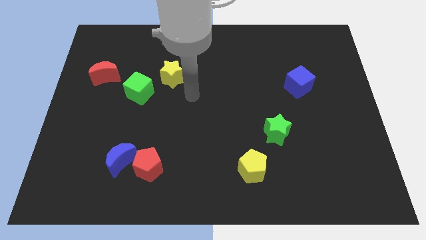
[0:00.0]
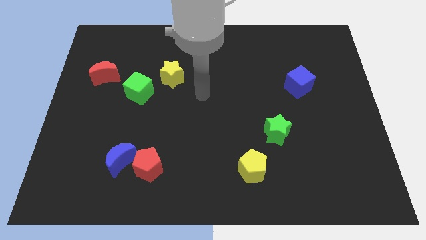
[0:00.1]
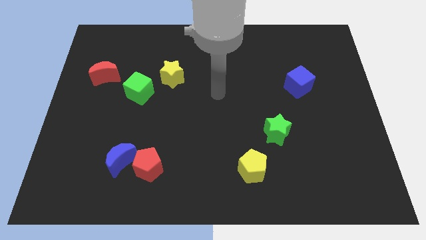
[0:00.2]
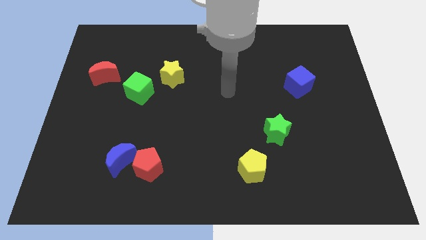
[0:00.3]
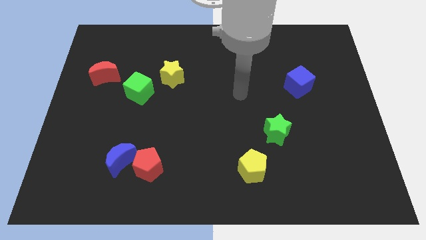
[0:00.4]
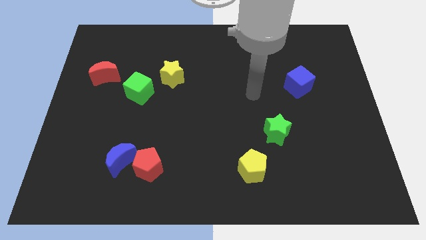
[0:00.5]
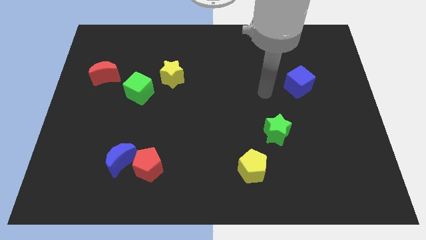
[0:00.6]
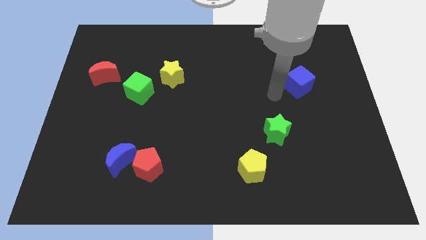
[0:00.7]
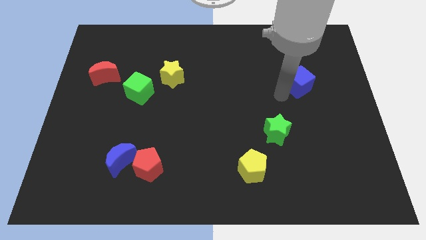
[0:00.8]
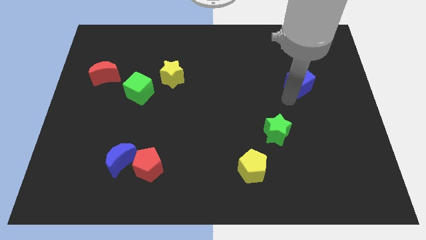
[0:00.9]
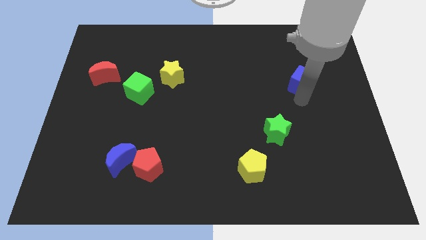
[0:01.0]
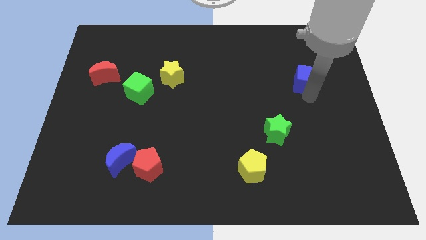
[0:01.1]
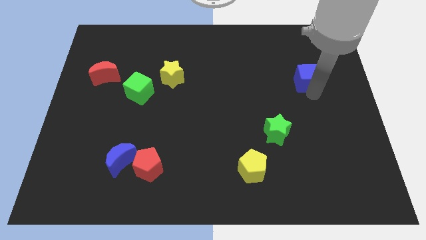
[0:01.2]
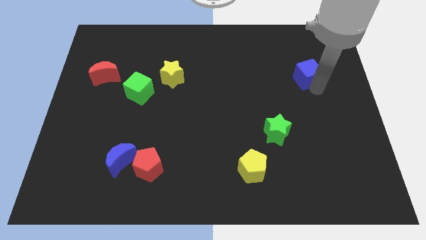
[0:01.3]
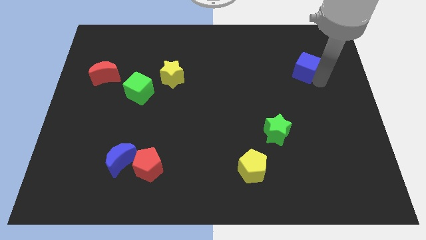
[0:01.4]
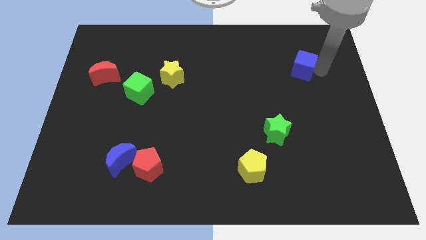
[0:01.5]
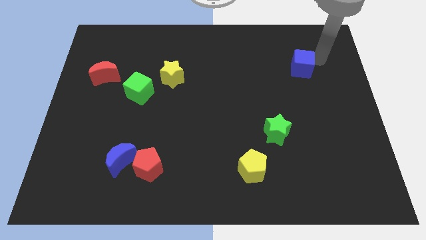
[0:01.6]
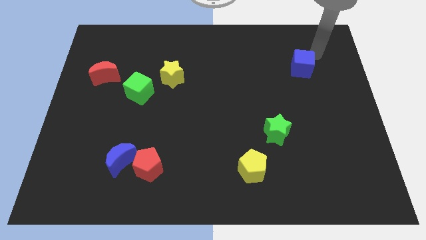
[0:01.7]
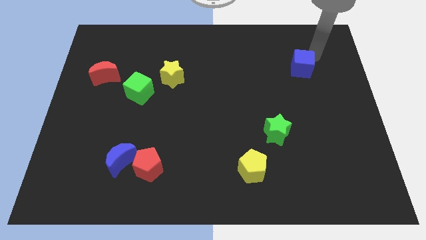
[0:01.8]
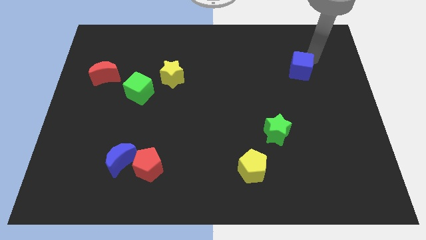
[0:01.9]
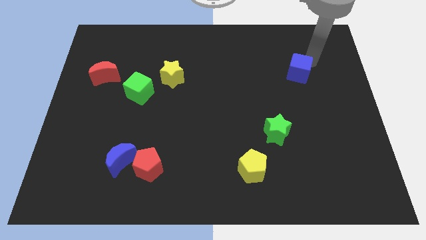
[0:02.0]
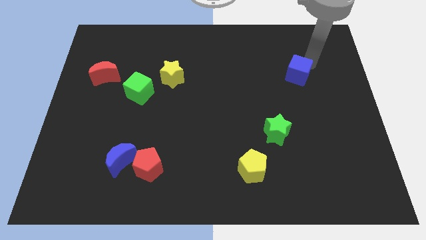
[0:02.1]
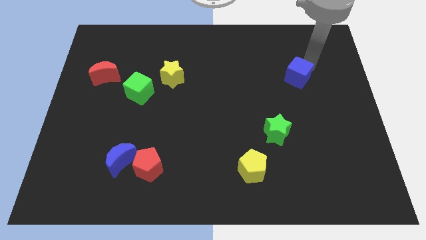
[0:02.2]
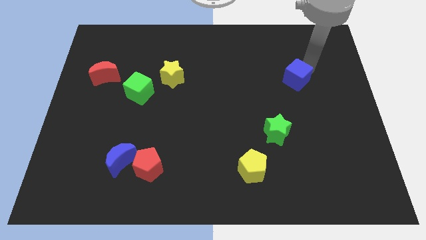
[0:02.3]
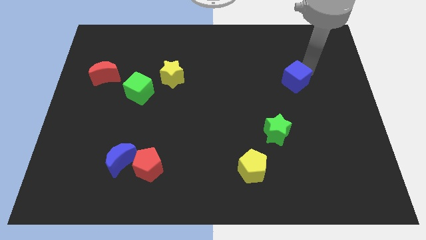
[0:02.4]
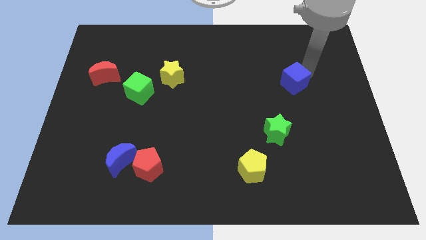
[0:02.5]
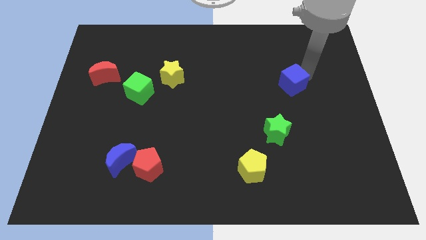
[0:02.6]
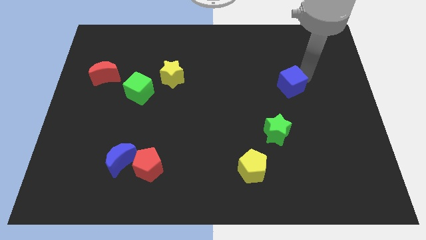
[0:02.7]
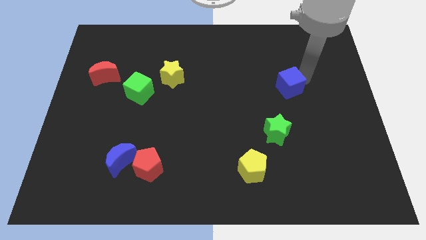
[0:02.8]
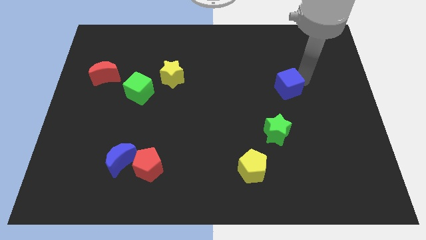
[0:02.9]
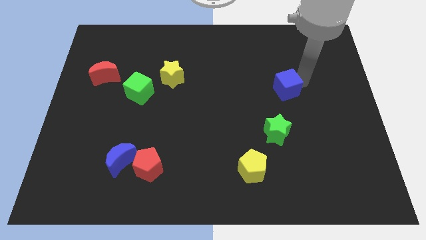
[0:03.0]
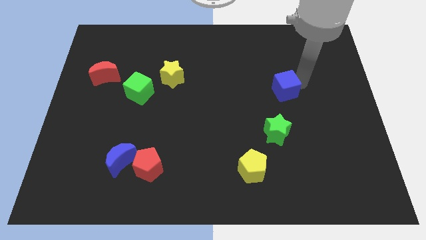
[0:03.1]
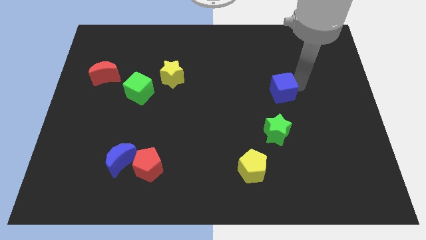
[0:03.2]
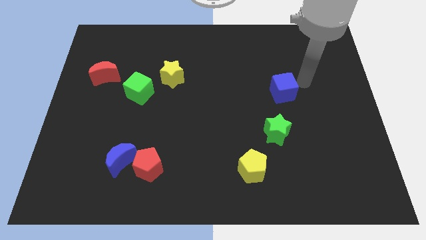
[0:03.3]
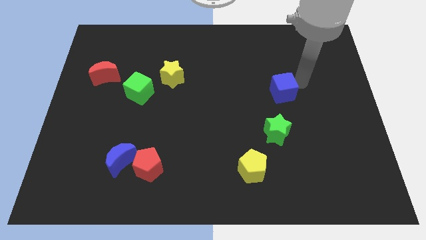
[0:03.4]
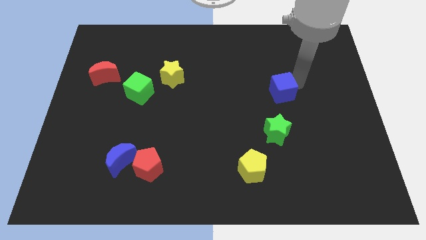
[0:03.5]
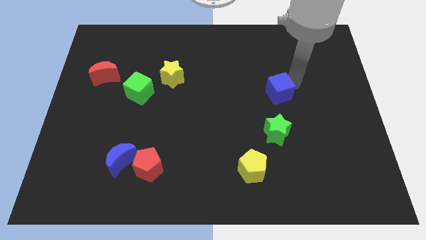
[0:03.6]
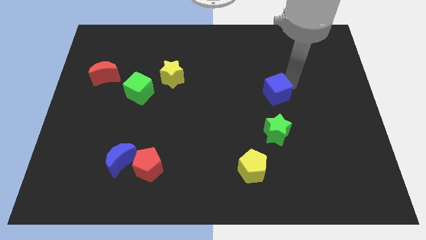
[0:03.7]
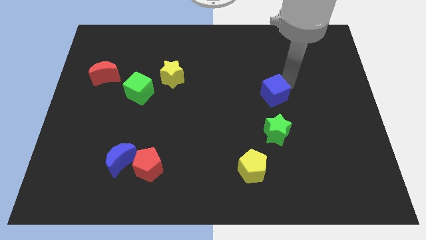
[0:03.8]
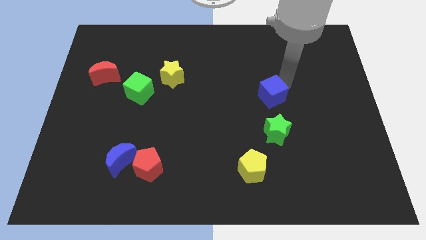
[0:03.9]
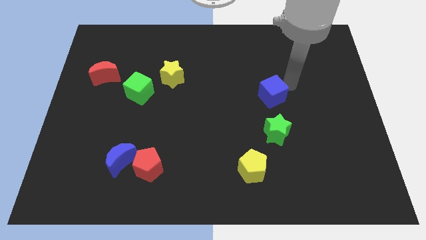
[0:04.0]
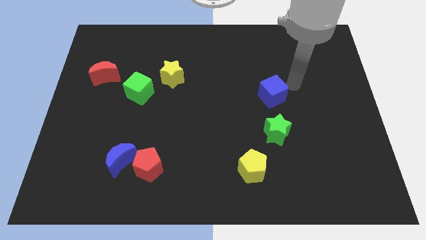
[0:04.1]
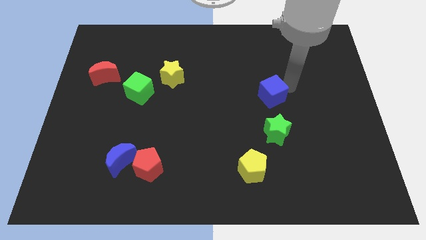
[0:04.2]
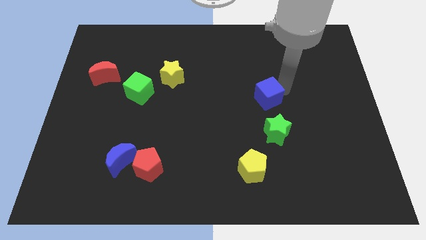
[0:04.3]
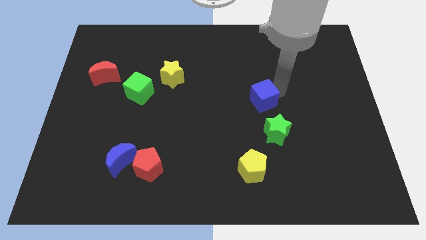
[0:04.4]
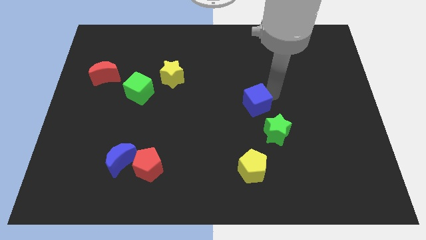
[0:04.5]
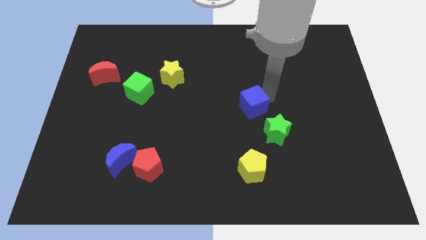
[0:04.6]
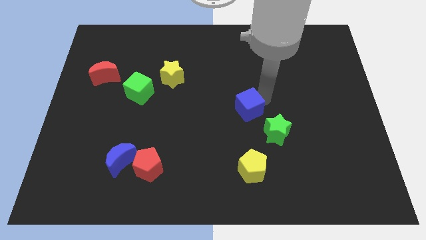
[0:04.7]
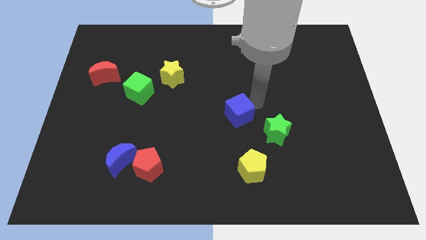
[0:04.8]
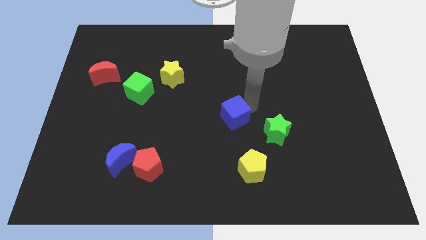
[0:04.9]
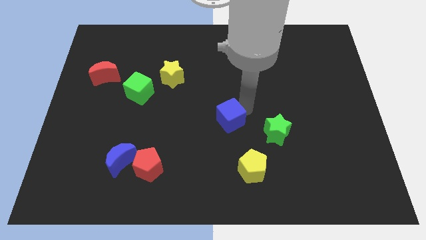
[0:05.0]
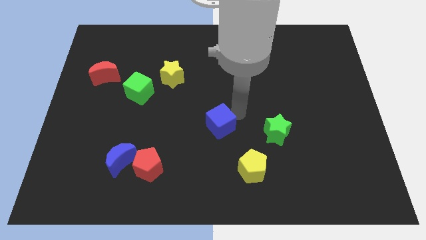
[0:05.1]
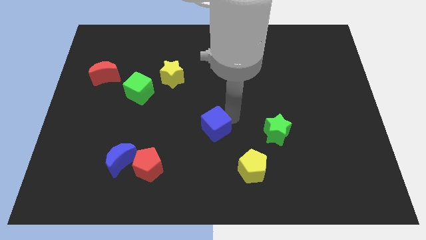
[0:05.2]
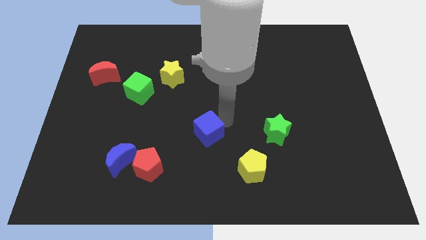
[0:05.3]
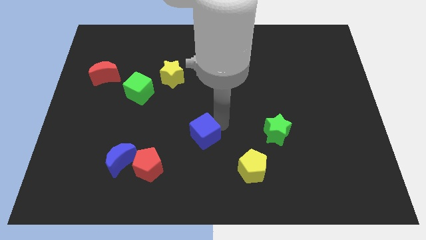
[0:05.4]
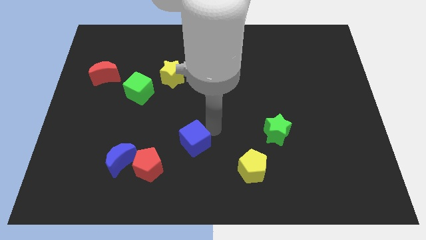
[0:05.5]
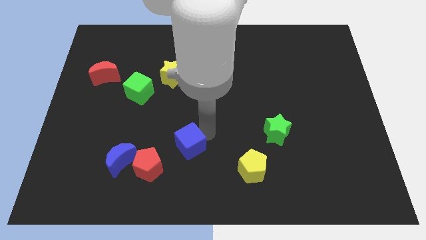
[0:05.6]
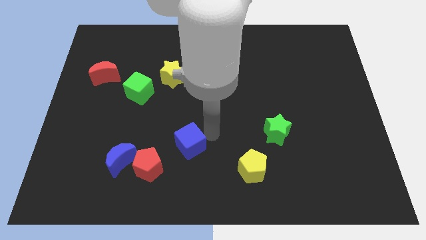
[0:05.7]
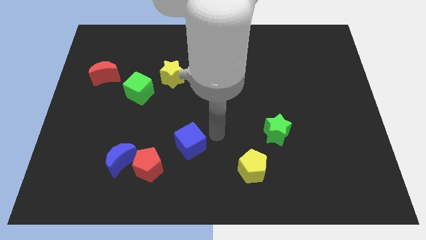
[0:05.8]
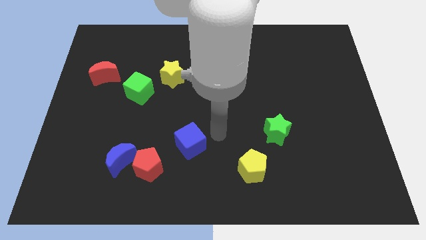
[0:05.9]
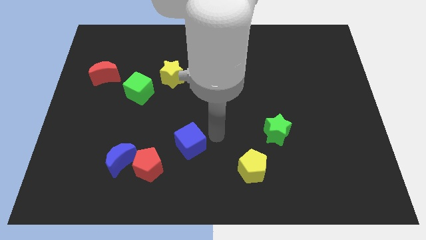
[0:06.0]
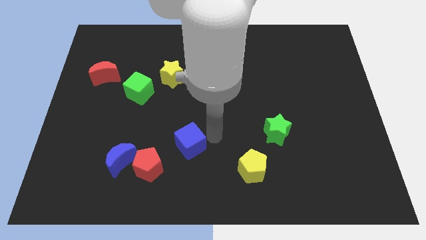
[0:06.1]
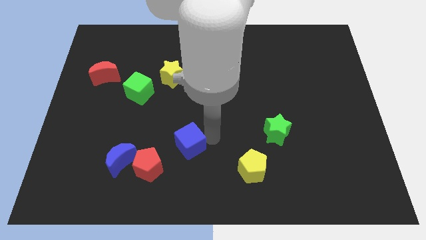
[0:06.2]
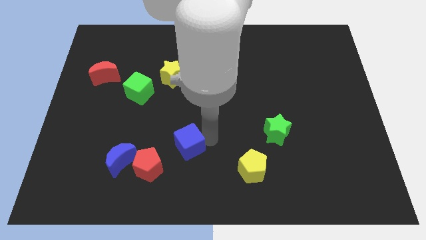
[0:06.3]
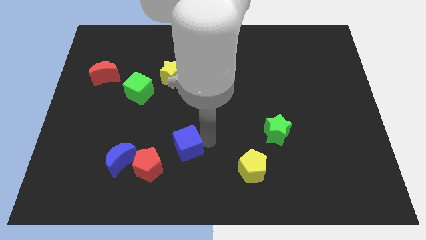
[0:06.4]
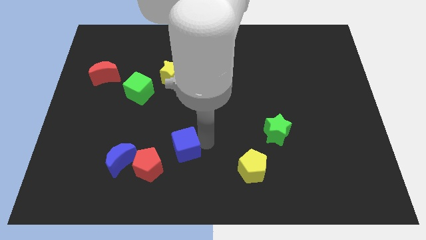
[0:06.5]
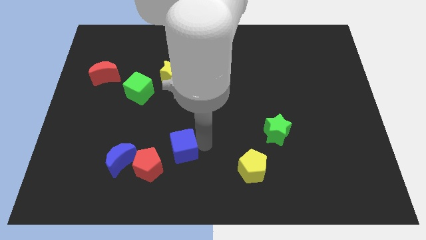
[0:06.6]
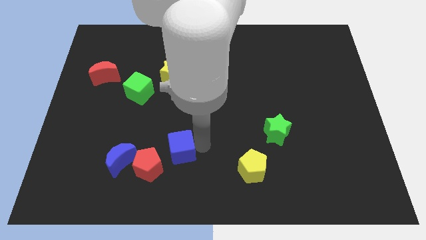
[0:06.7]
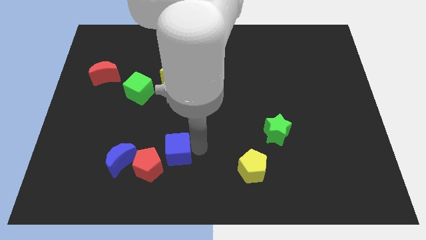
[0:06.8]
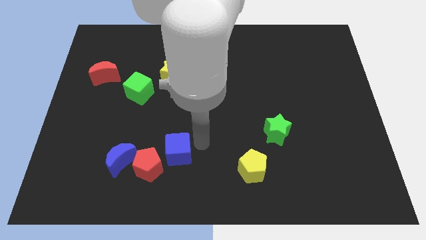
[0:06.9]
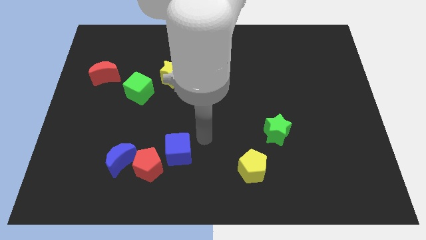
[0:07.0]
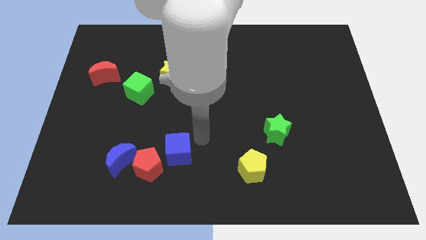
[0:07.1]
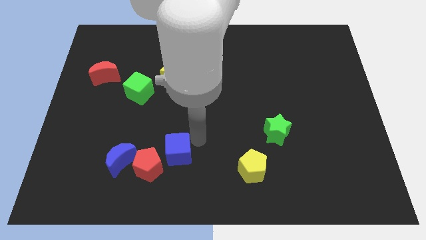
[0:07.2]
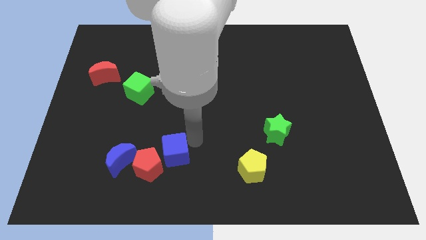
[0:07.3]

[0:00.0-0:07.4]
move the blue cube towards the red pentagon

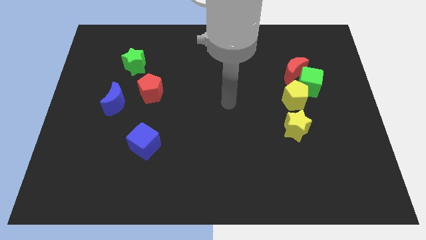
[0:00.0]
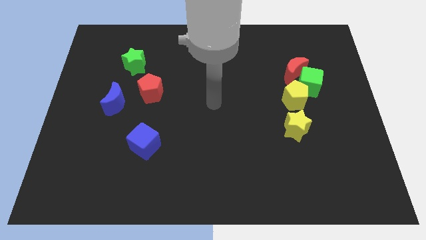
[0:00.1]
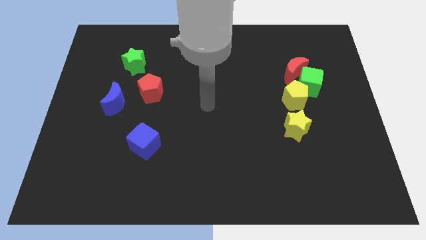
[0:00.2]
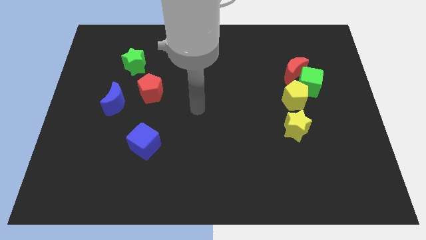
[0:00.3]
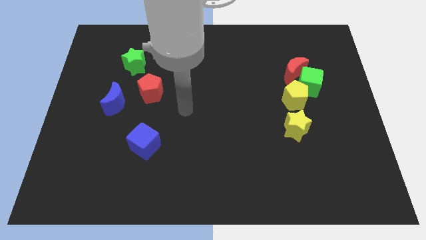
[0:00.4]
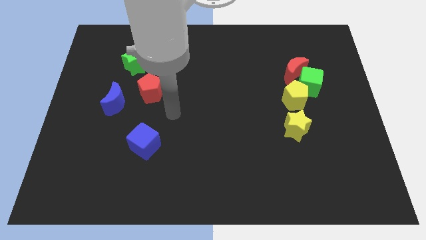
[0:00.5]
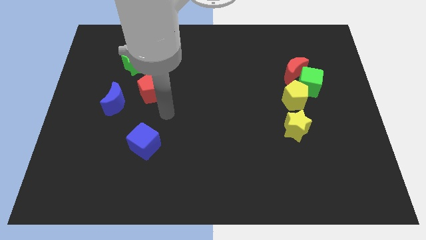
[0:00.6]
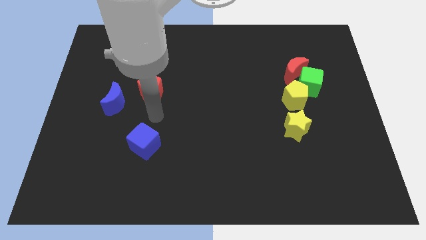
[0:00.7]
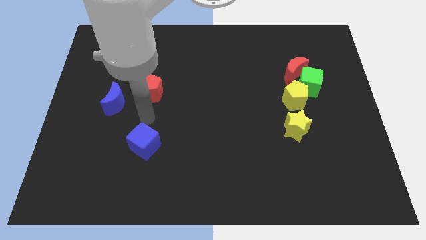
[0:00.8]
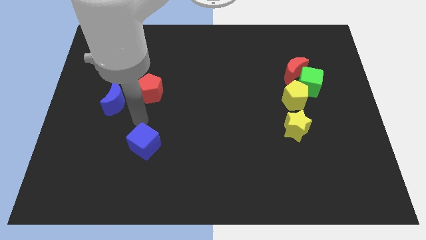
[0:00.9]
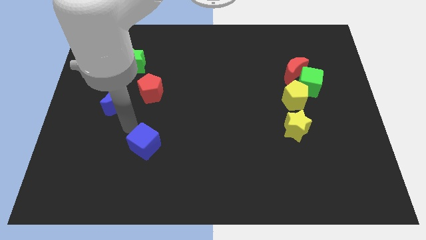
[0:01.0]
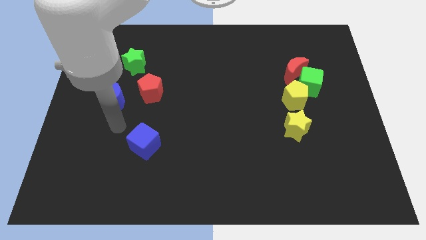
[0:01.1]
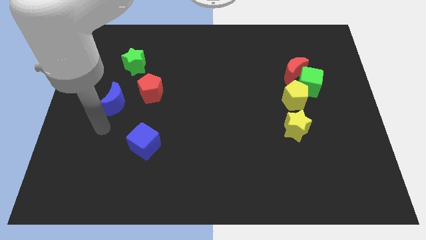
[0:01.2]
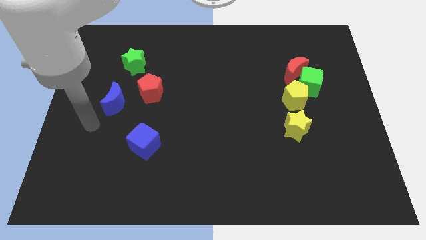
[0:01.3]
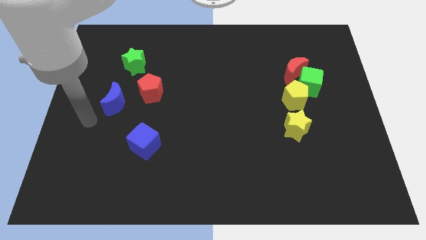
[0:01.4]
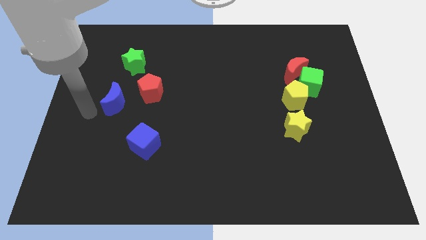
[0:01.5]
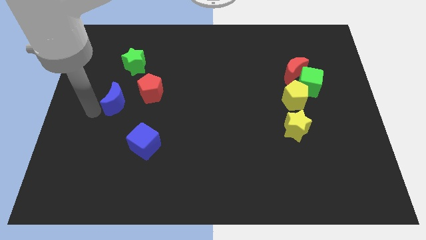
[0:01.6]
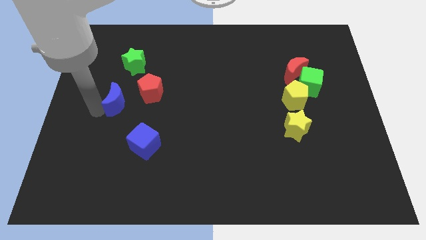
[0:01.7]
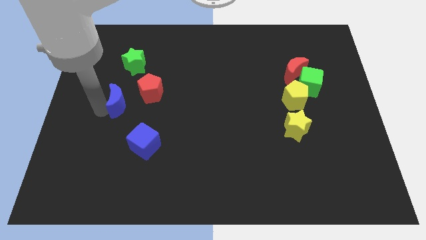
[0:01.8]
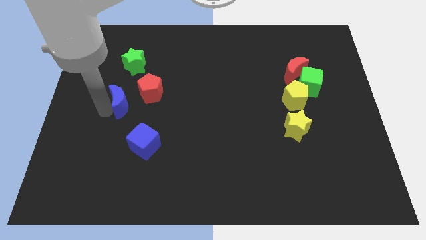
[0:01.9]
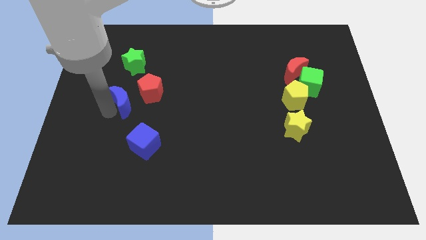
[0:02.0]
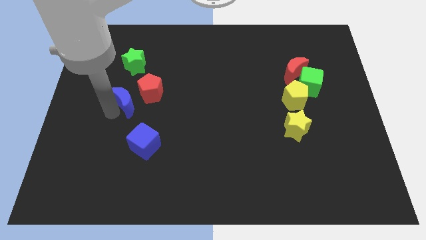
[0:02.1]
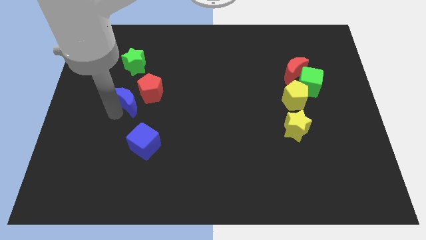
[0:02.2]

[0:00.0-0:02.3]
push the blue moon close to the red pentagon
